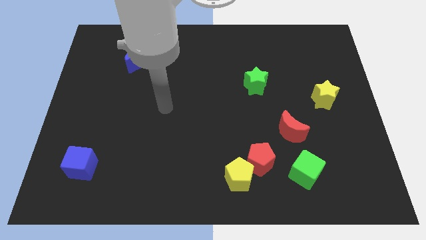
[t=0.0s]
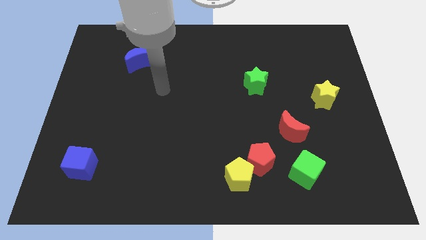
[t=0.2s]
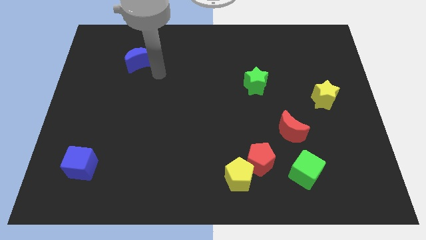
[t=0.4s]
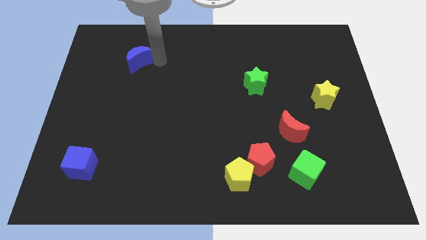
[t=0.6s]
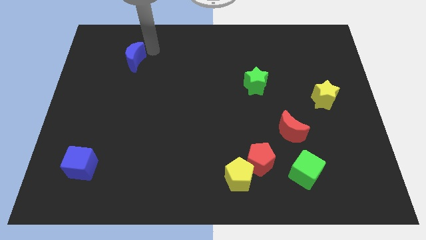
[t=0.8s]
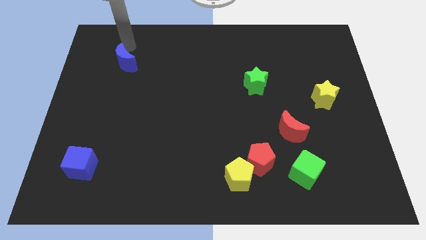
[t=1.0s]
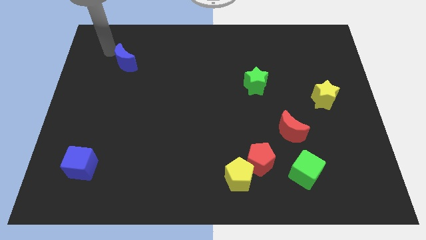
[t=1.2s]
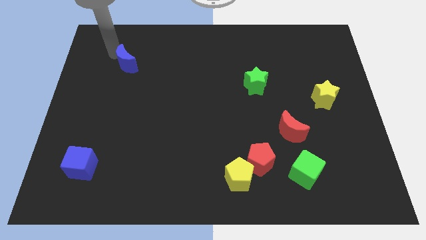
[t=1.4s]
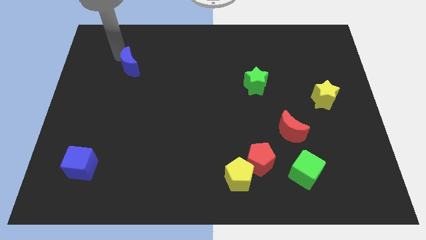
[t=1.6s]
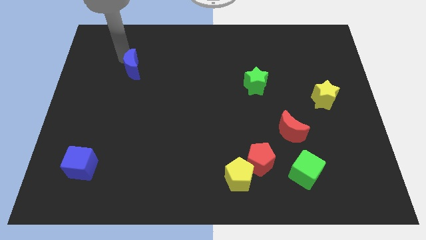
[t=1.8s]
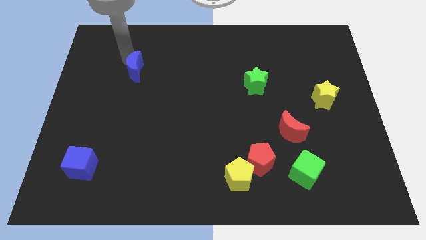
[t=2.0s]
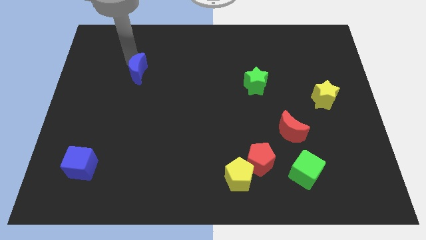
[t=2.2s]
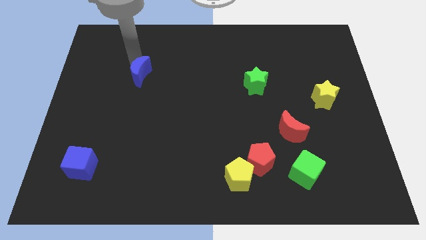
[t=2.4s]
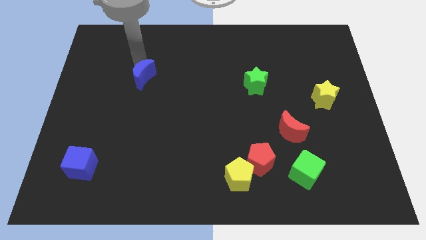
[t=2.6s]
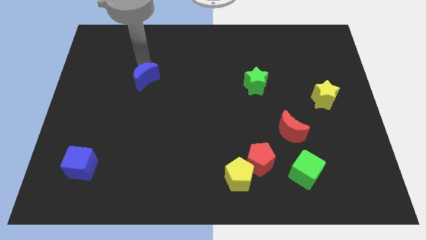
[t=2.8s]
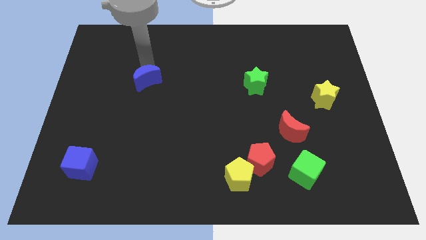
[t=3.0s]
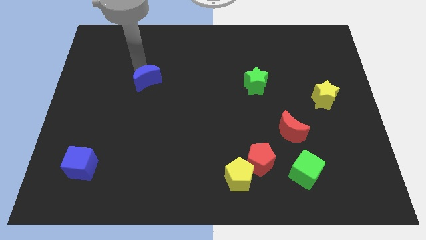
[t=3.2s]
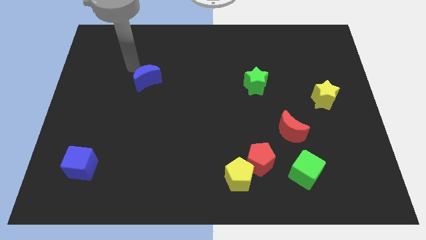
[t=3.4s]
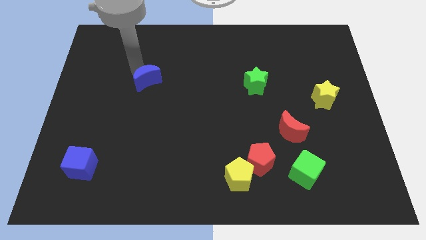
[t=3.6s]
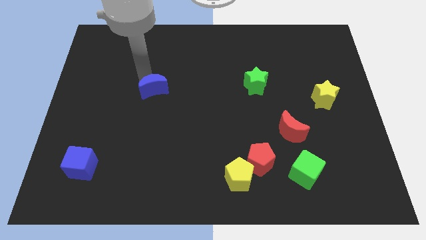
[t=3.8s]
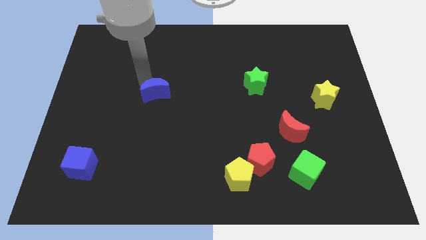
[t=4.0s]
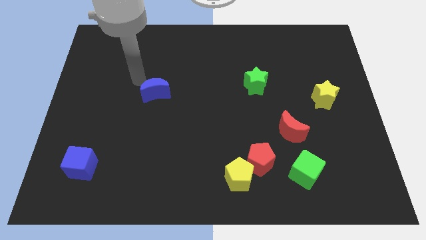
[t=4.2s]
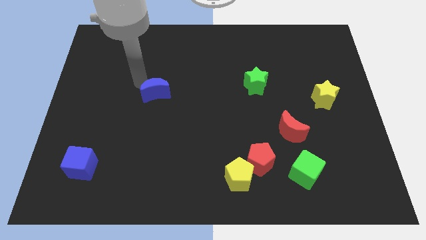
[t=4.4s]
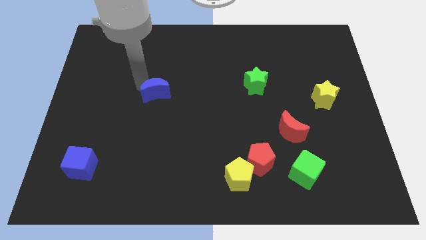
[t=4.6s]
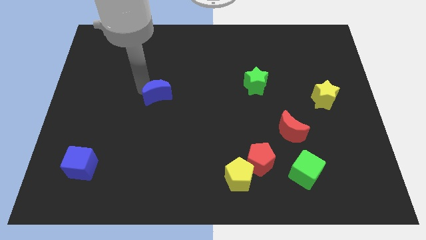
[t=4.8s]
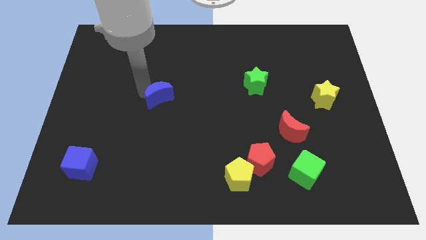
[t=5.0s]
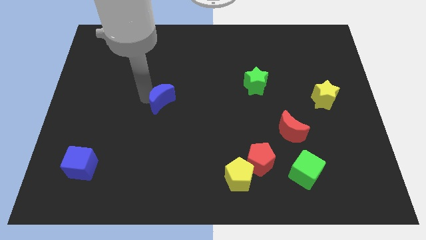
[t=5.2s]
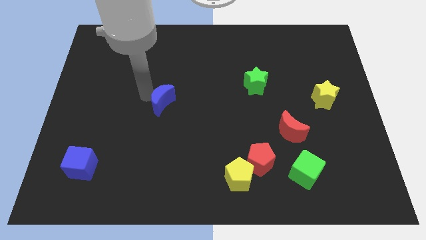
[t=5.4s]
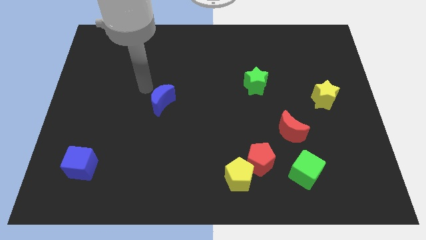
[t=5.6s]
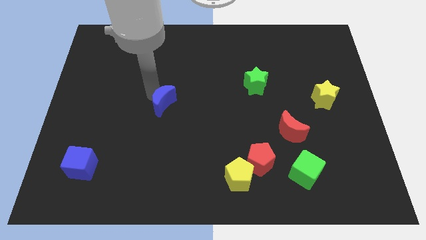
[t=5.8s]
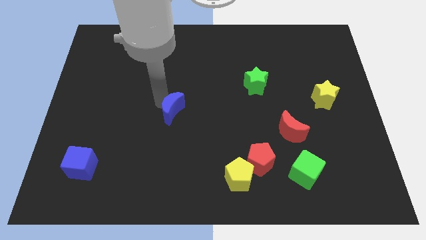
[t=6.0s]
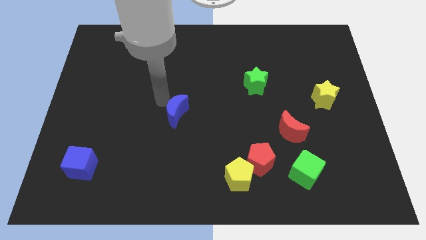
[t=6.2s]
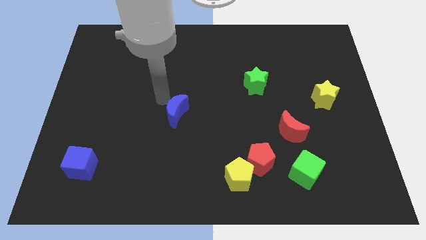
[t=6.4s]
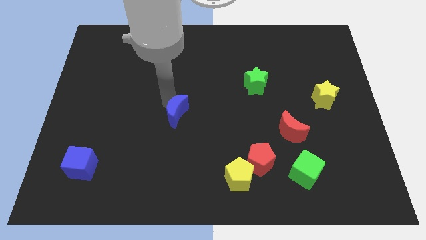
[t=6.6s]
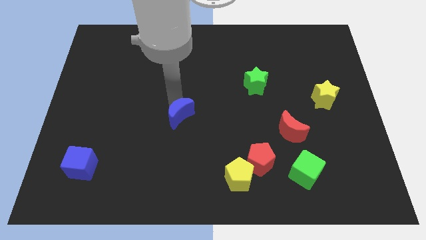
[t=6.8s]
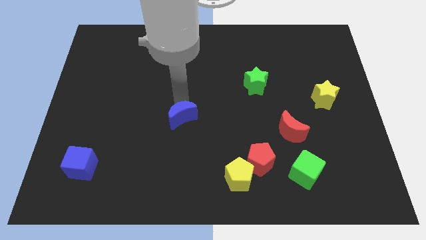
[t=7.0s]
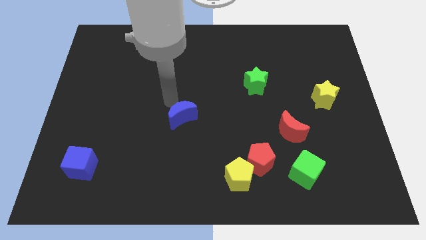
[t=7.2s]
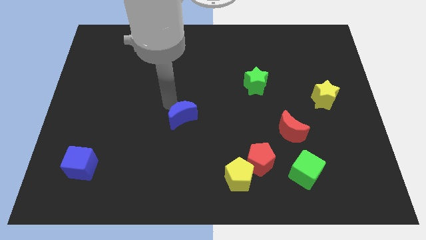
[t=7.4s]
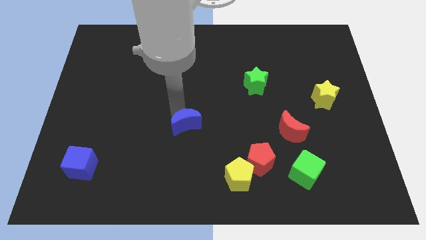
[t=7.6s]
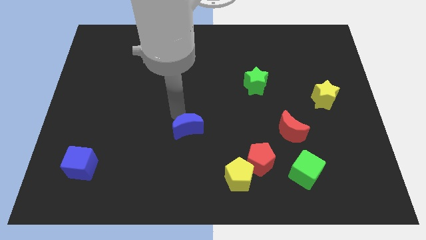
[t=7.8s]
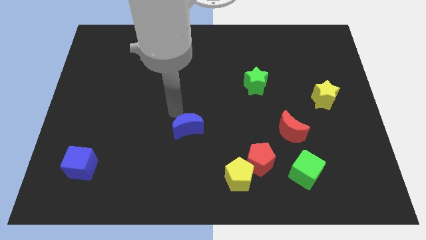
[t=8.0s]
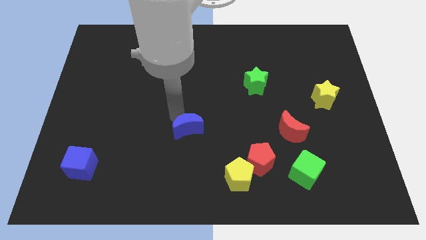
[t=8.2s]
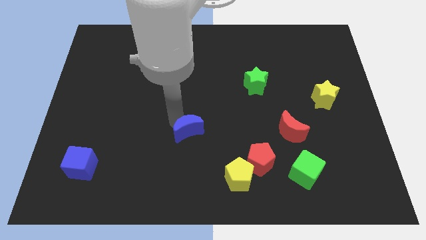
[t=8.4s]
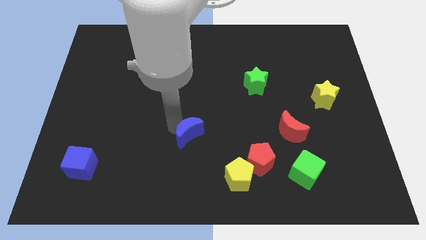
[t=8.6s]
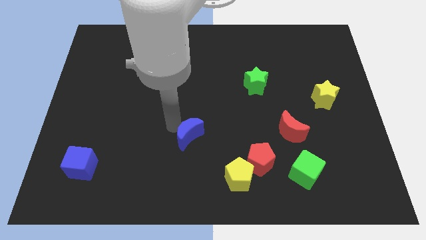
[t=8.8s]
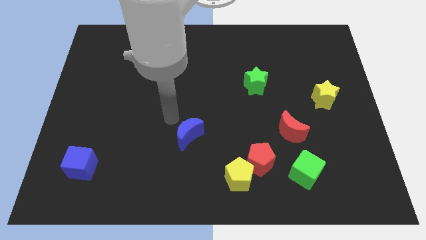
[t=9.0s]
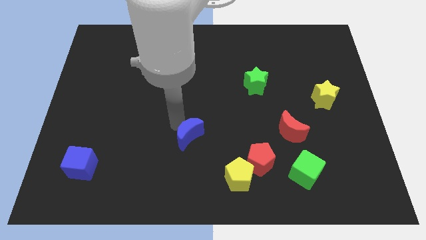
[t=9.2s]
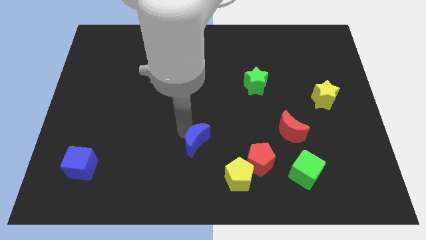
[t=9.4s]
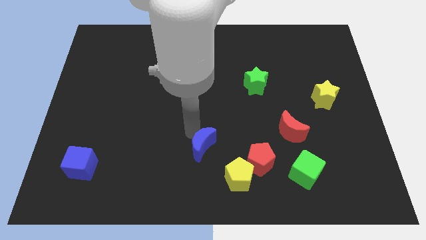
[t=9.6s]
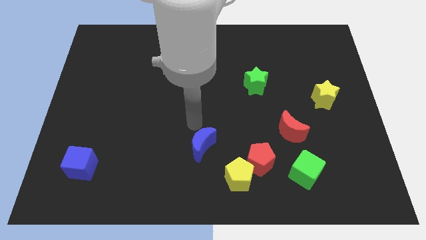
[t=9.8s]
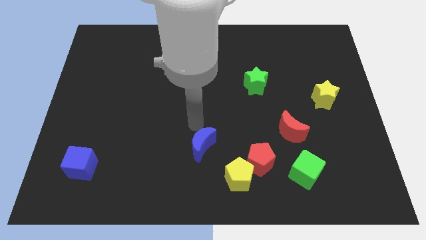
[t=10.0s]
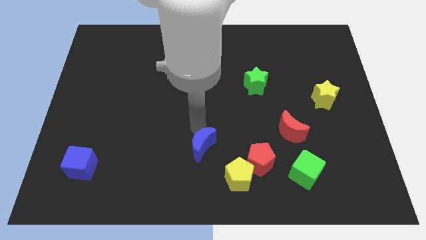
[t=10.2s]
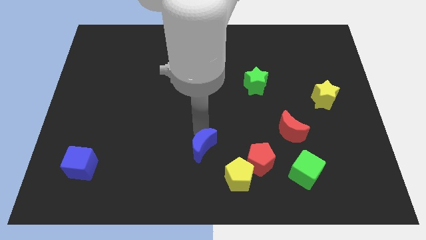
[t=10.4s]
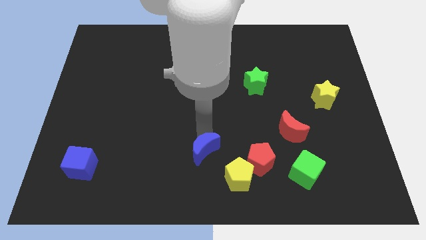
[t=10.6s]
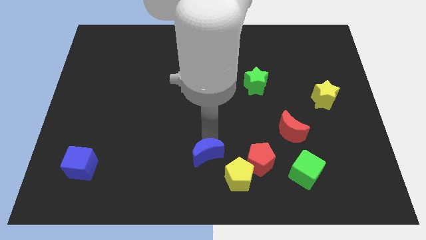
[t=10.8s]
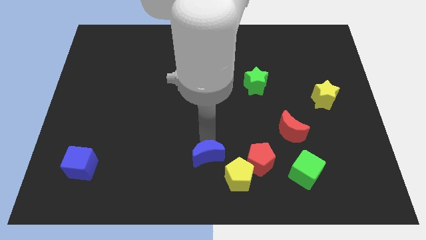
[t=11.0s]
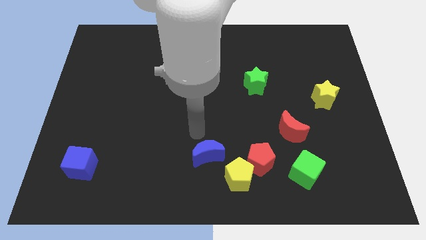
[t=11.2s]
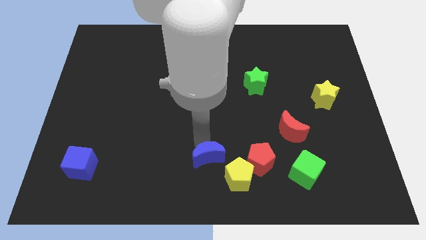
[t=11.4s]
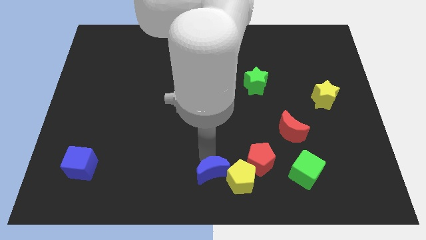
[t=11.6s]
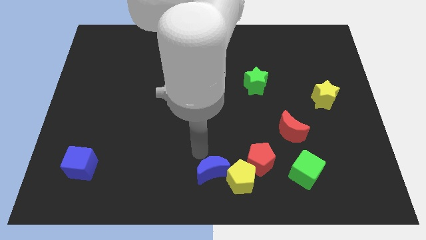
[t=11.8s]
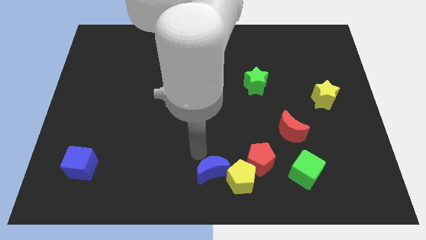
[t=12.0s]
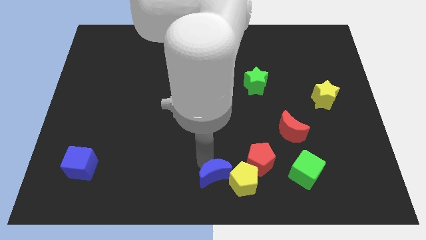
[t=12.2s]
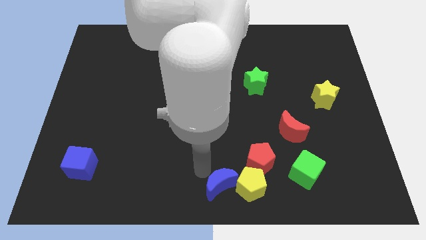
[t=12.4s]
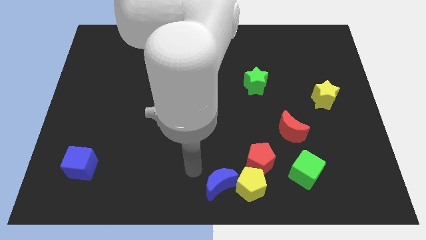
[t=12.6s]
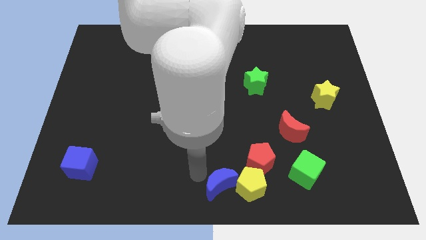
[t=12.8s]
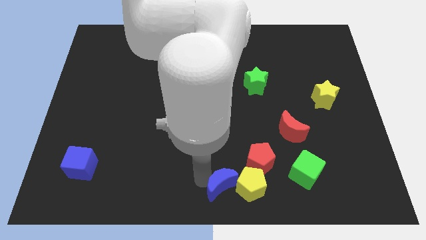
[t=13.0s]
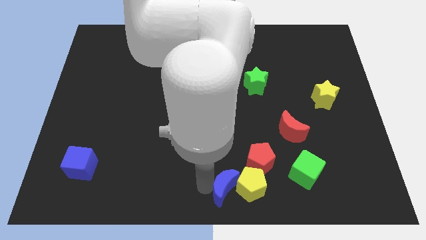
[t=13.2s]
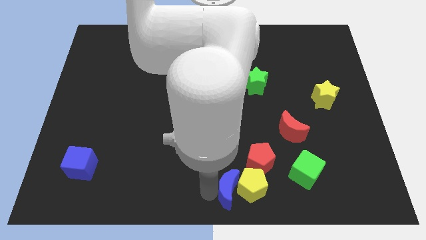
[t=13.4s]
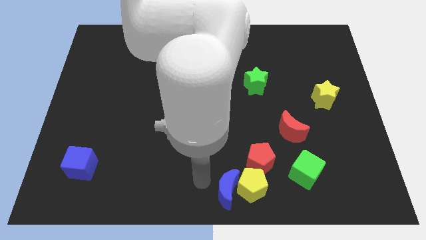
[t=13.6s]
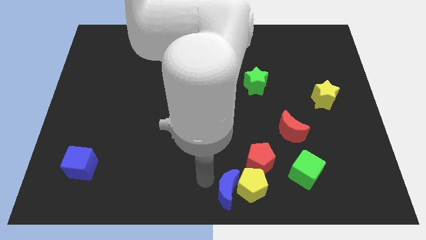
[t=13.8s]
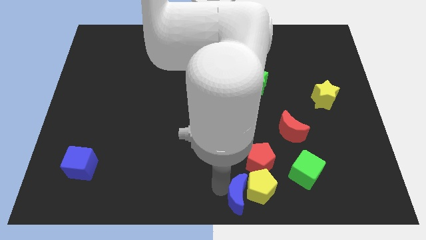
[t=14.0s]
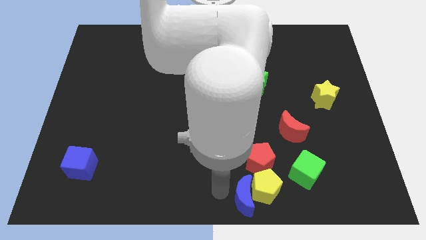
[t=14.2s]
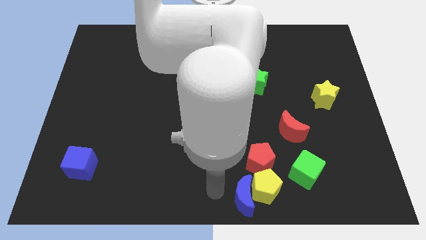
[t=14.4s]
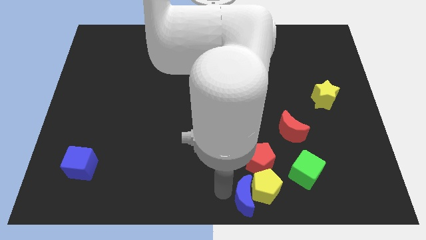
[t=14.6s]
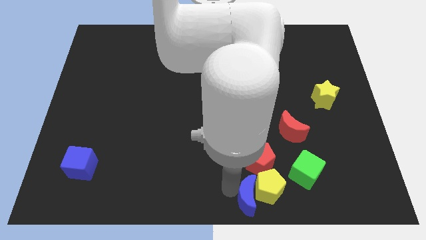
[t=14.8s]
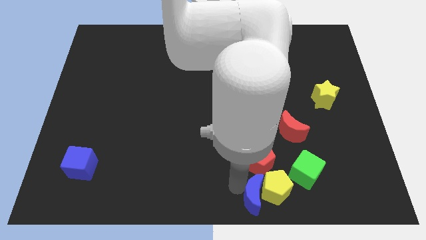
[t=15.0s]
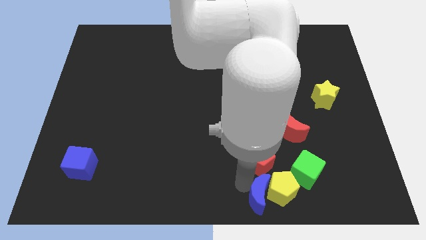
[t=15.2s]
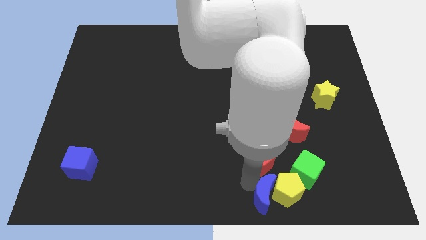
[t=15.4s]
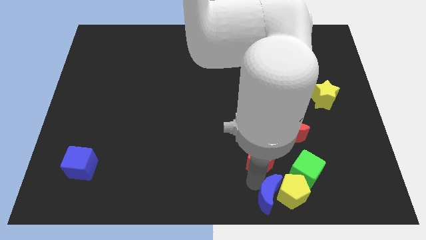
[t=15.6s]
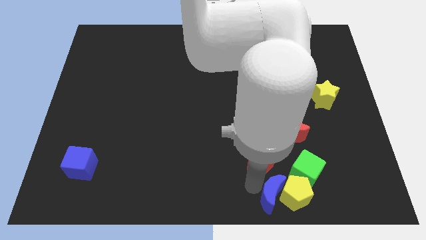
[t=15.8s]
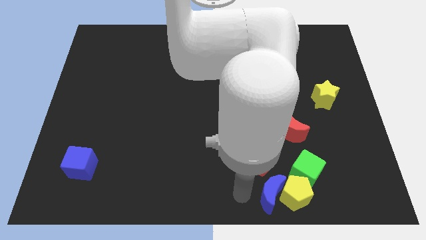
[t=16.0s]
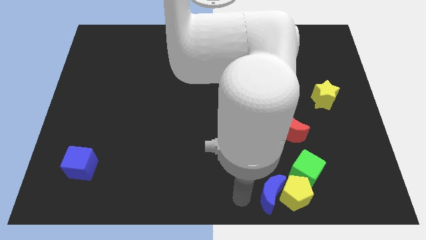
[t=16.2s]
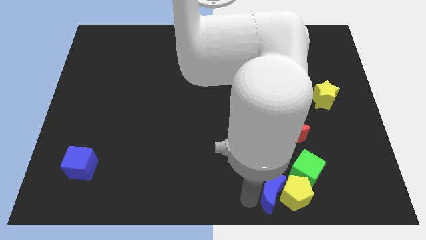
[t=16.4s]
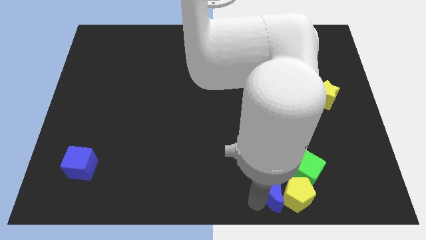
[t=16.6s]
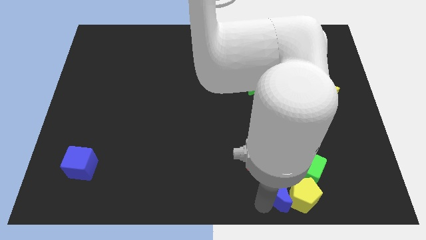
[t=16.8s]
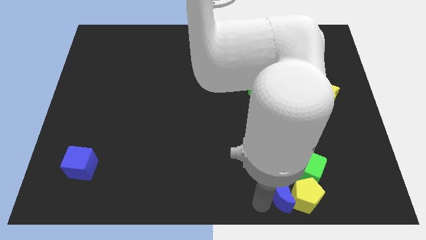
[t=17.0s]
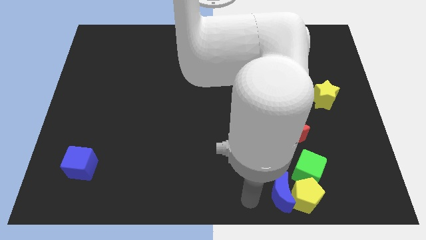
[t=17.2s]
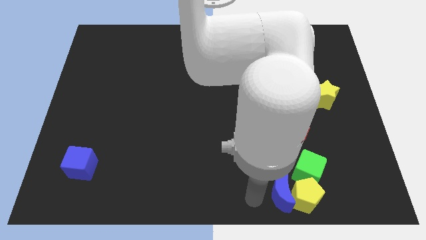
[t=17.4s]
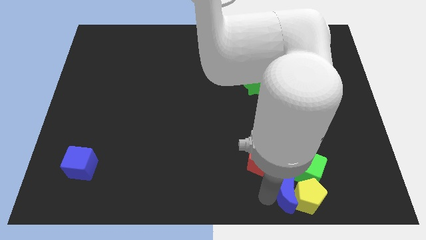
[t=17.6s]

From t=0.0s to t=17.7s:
slide the blue moon below the red moon
